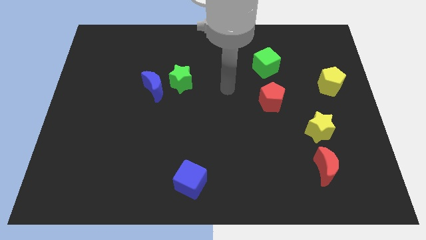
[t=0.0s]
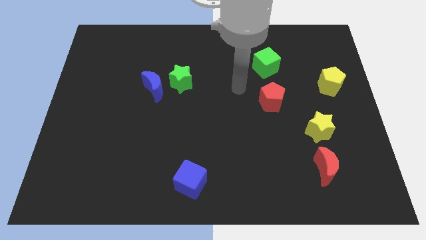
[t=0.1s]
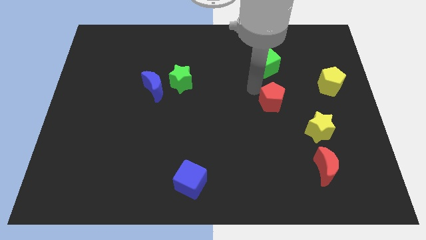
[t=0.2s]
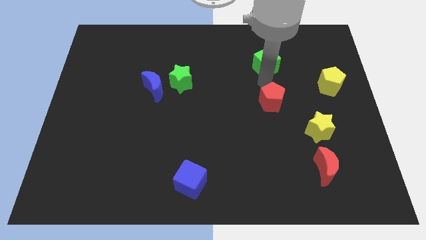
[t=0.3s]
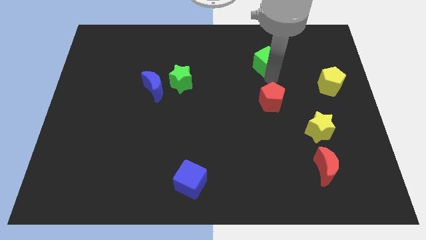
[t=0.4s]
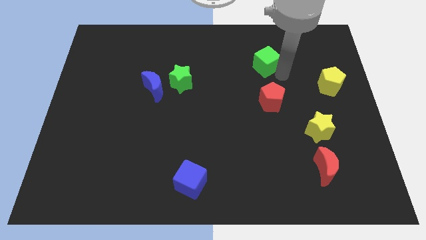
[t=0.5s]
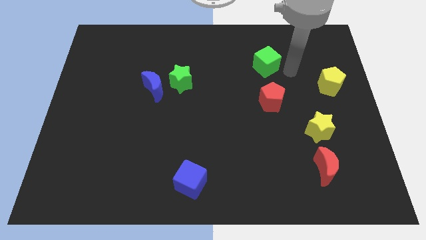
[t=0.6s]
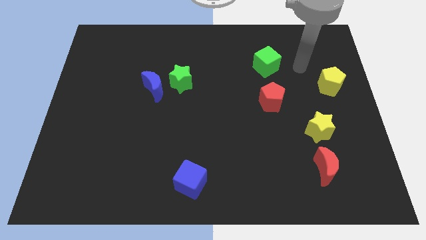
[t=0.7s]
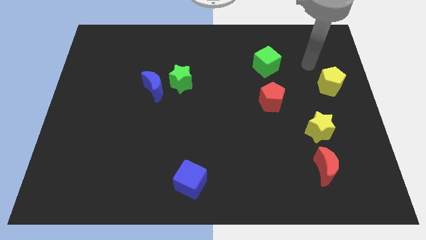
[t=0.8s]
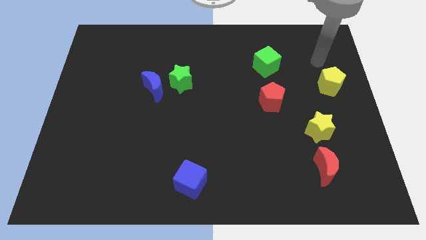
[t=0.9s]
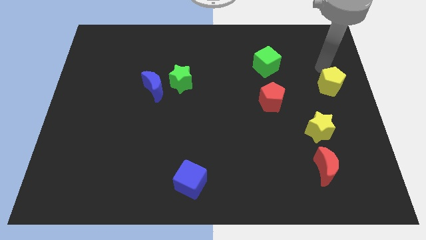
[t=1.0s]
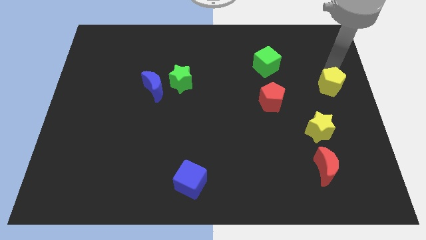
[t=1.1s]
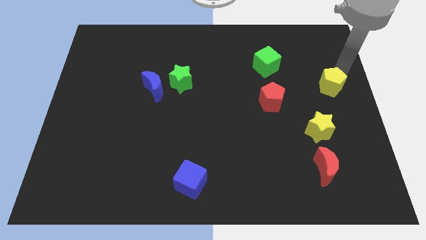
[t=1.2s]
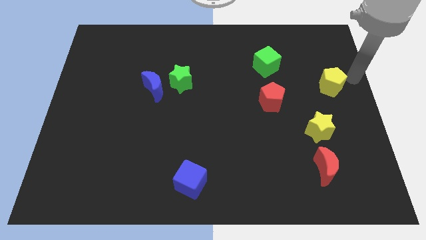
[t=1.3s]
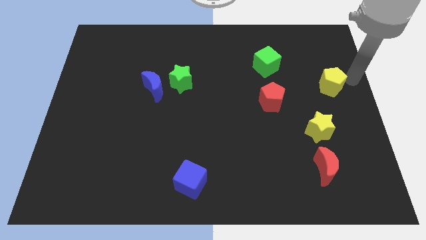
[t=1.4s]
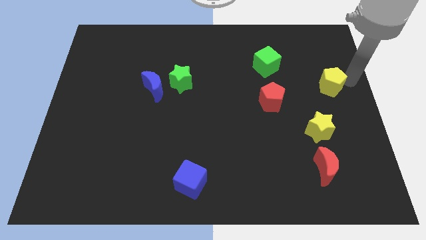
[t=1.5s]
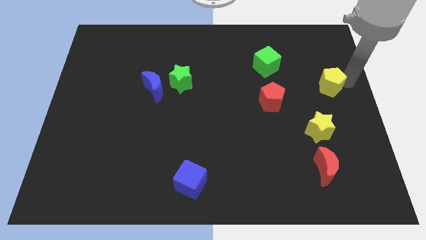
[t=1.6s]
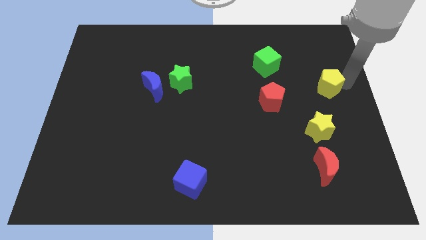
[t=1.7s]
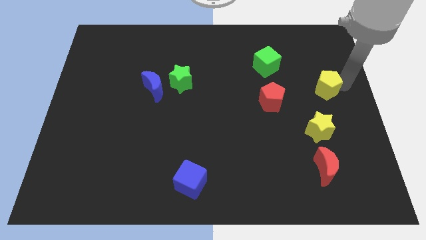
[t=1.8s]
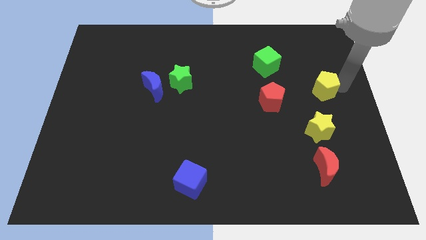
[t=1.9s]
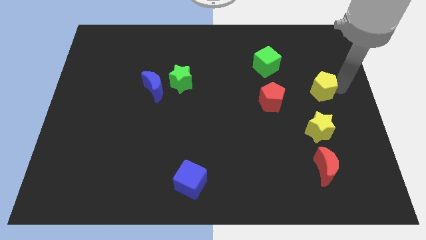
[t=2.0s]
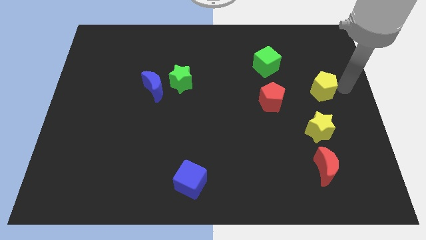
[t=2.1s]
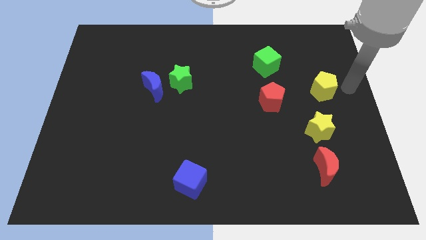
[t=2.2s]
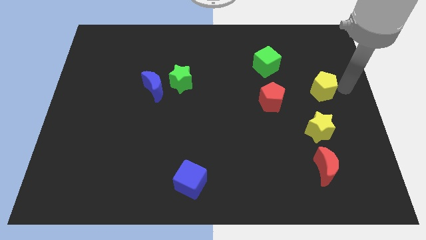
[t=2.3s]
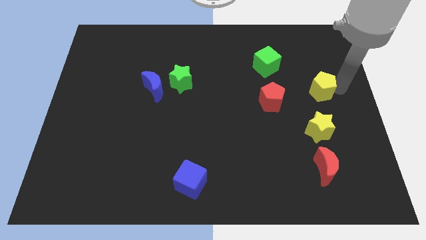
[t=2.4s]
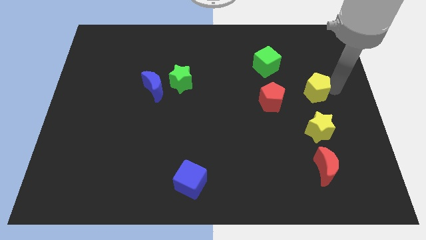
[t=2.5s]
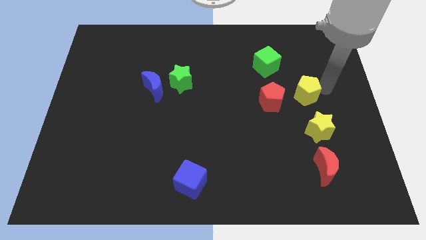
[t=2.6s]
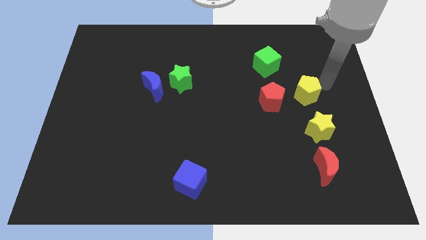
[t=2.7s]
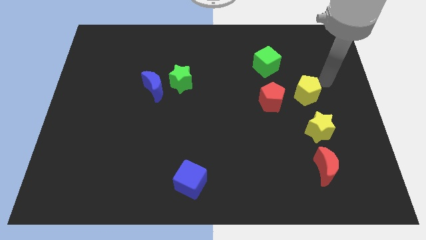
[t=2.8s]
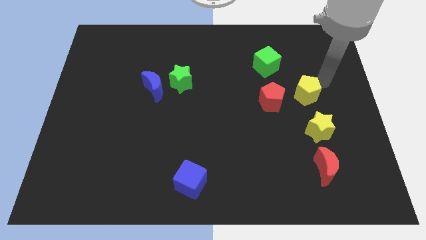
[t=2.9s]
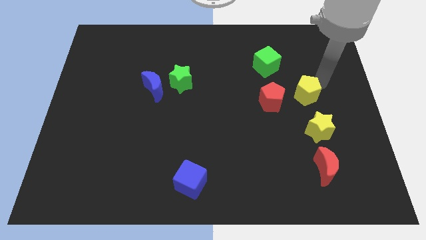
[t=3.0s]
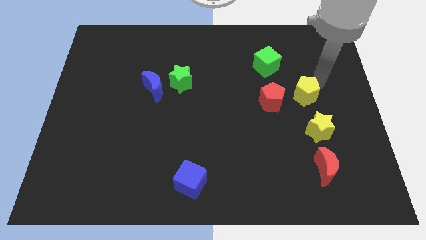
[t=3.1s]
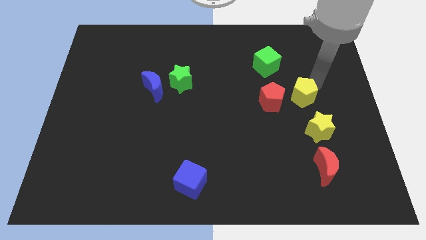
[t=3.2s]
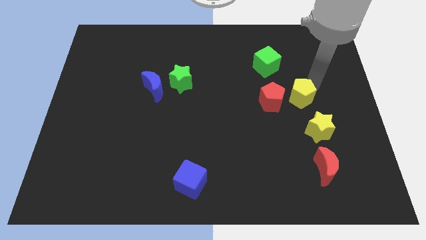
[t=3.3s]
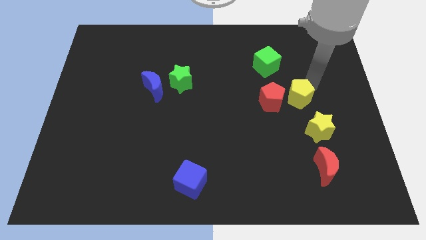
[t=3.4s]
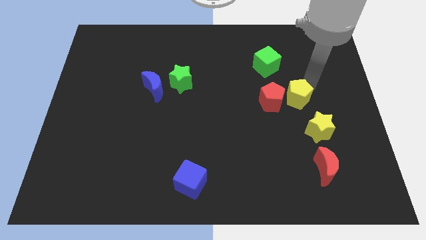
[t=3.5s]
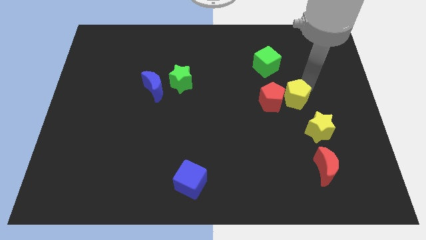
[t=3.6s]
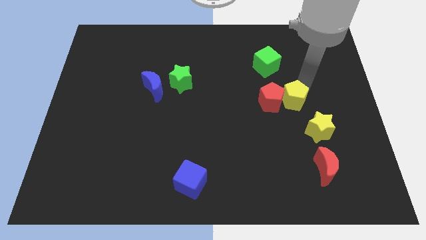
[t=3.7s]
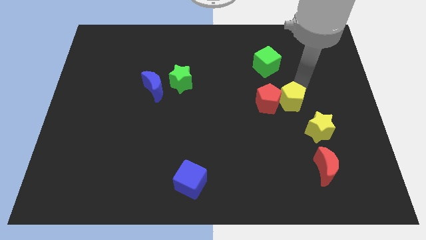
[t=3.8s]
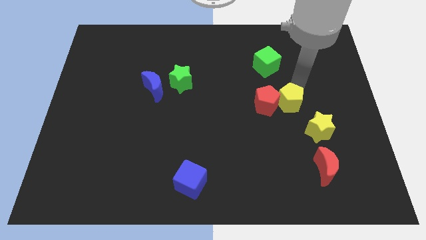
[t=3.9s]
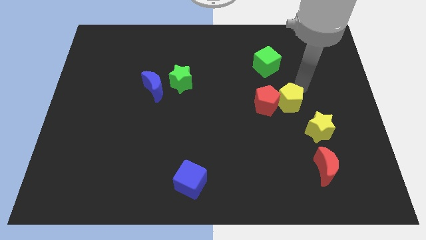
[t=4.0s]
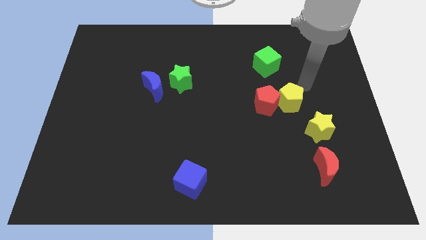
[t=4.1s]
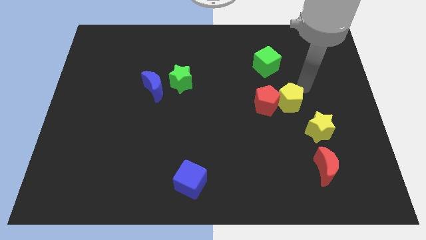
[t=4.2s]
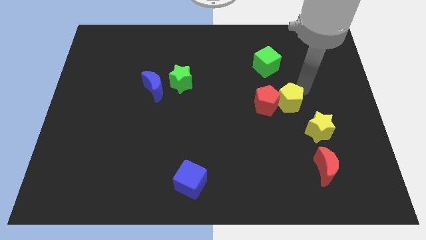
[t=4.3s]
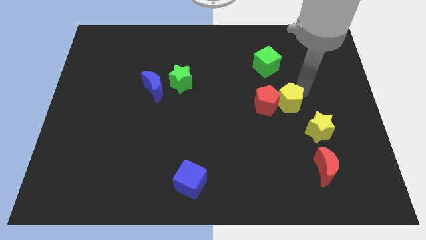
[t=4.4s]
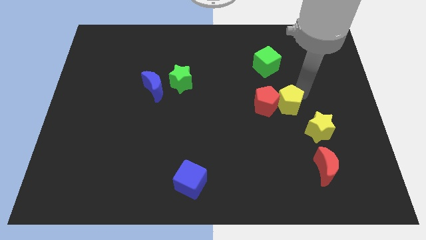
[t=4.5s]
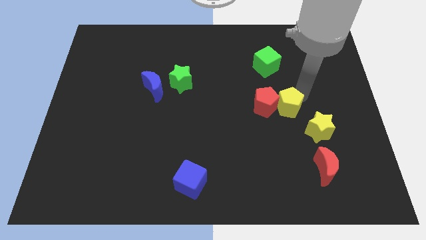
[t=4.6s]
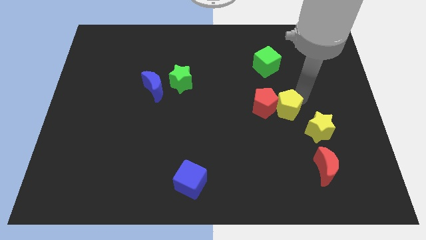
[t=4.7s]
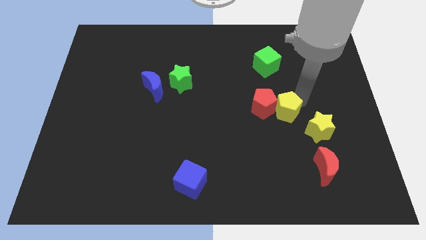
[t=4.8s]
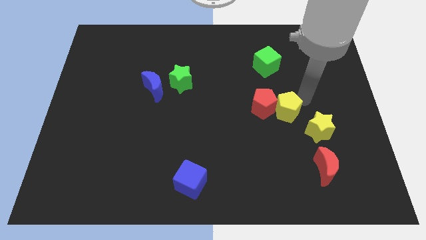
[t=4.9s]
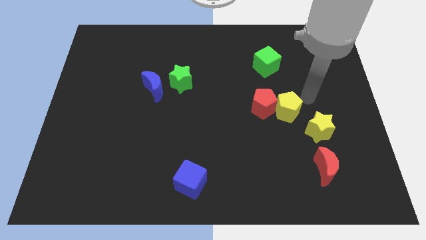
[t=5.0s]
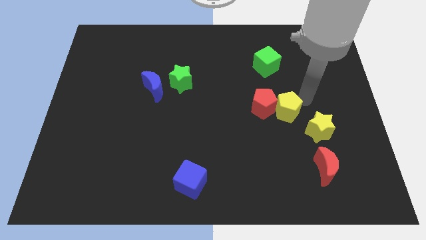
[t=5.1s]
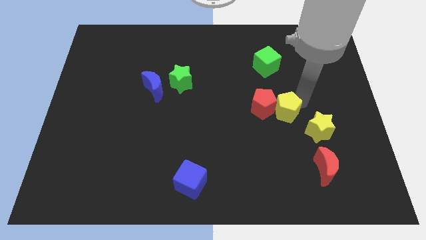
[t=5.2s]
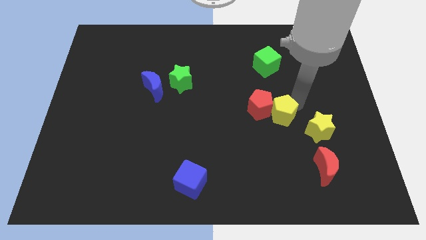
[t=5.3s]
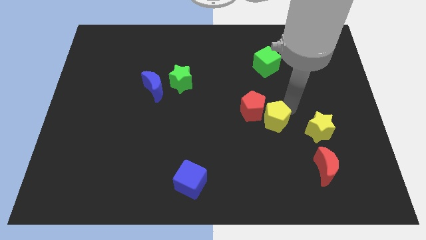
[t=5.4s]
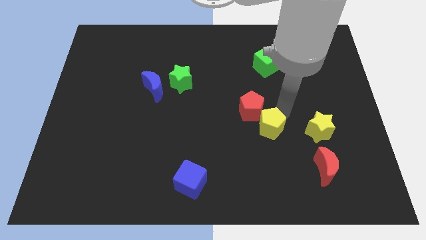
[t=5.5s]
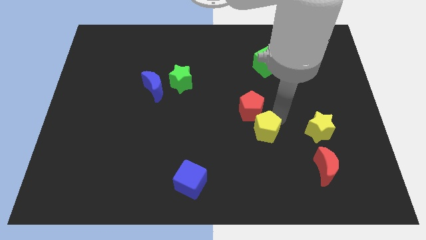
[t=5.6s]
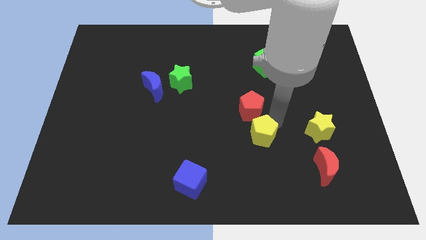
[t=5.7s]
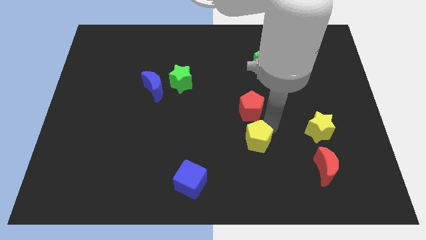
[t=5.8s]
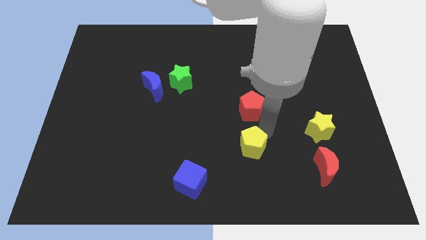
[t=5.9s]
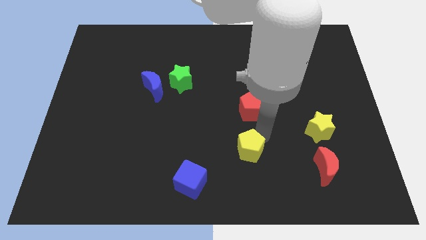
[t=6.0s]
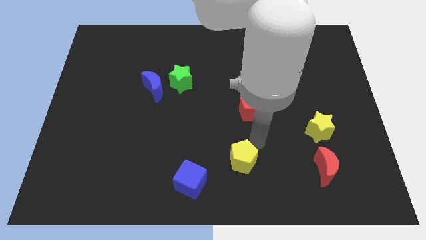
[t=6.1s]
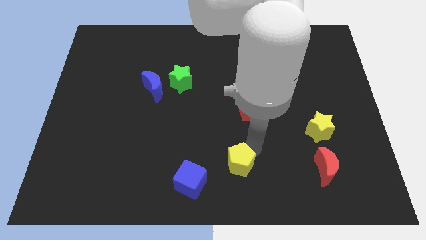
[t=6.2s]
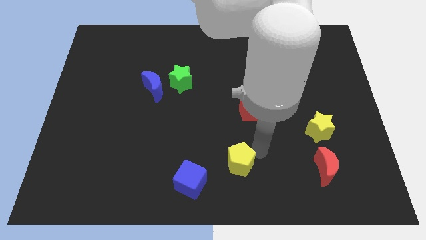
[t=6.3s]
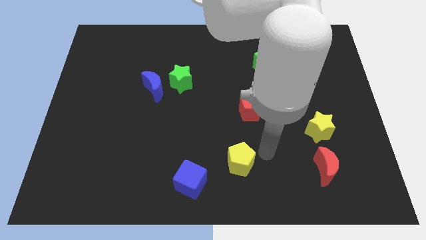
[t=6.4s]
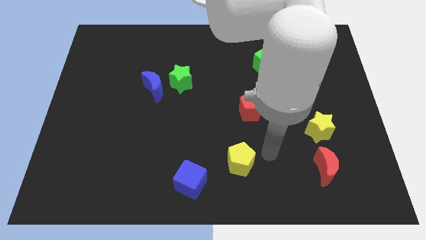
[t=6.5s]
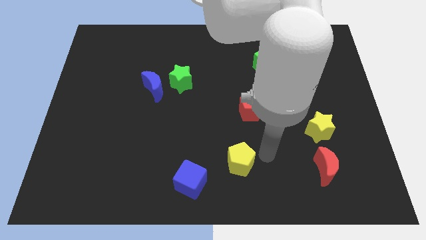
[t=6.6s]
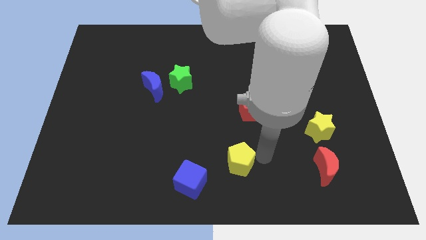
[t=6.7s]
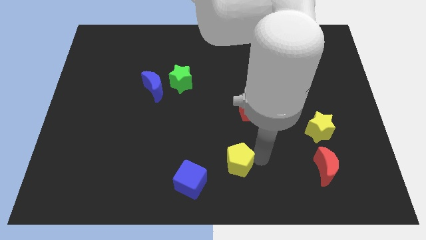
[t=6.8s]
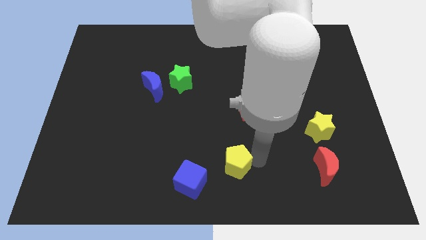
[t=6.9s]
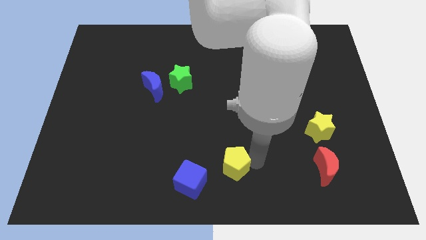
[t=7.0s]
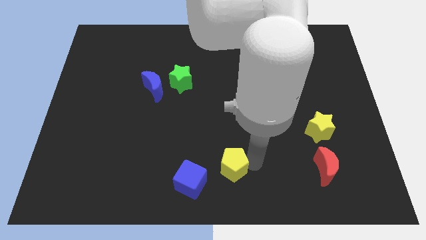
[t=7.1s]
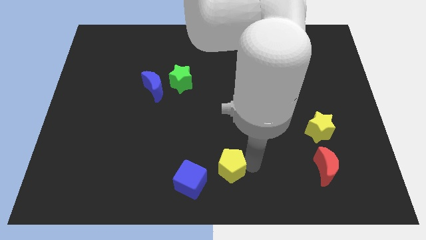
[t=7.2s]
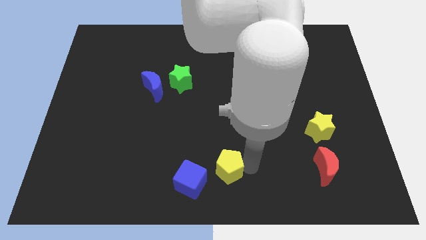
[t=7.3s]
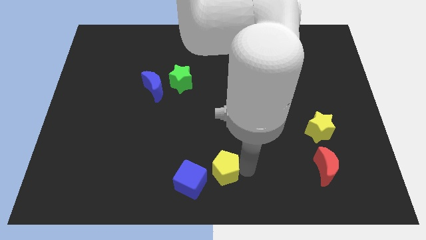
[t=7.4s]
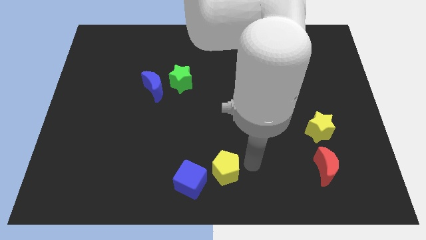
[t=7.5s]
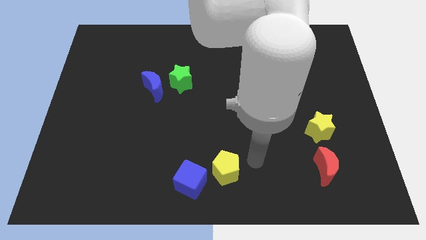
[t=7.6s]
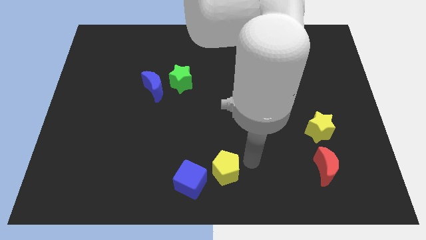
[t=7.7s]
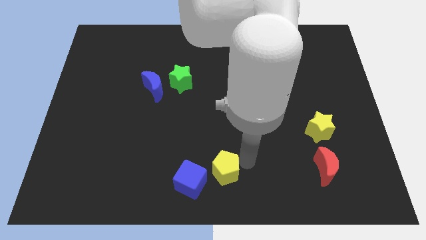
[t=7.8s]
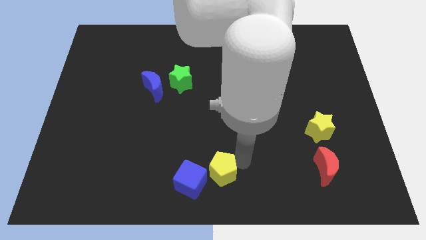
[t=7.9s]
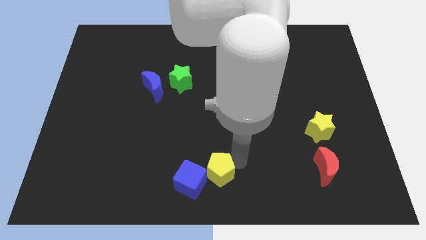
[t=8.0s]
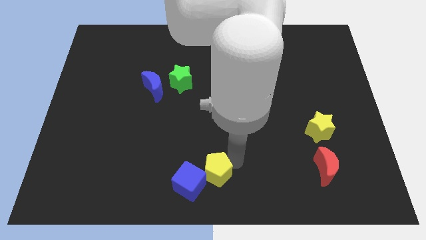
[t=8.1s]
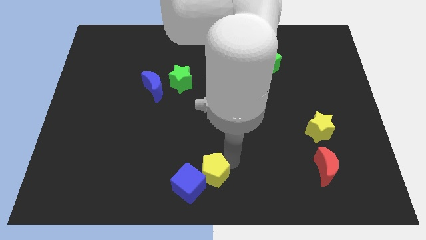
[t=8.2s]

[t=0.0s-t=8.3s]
slide the yellow pentagon to the blue cube
